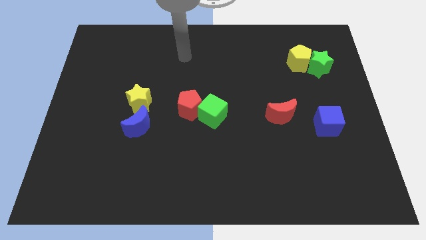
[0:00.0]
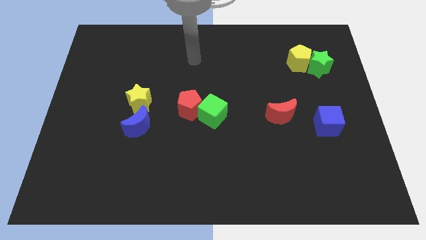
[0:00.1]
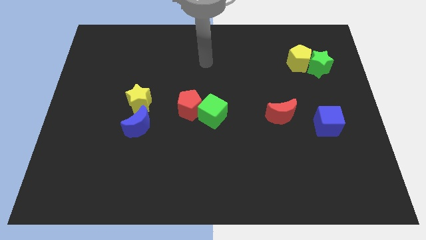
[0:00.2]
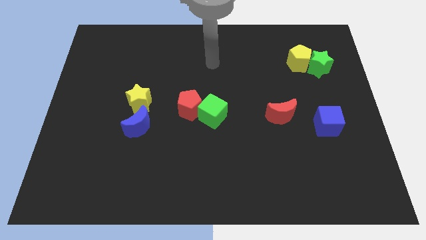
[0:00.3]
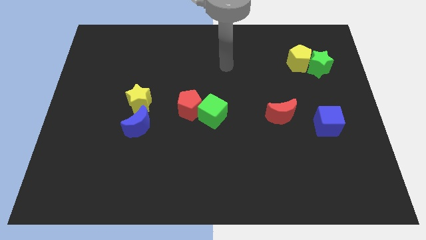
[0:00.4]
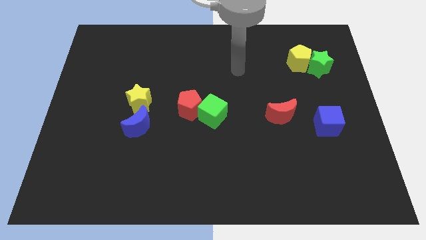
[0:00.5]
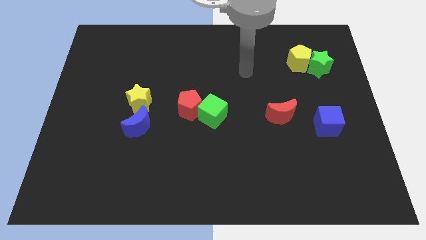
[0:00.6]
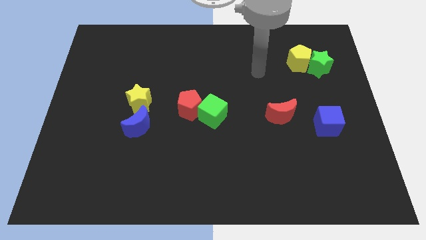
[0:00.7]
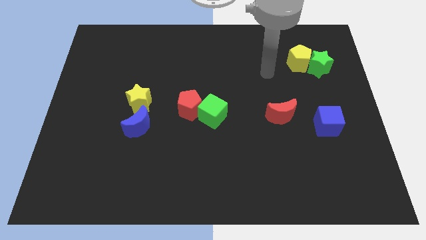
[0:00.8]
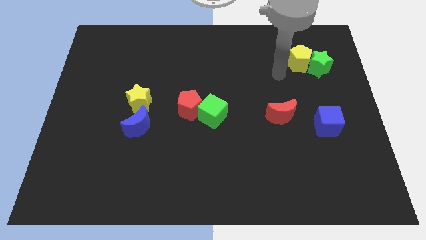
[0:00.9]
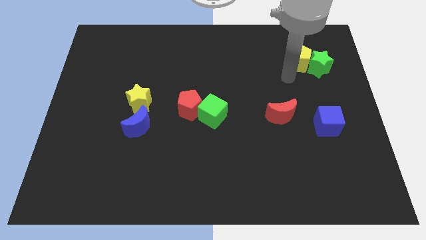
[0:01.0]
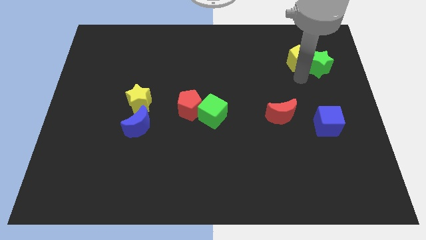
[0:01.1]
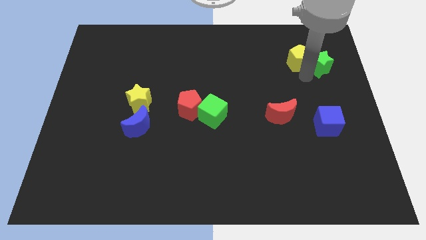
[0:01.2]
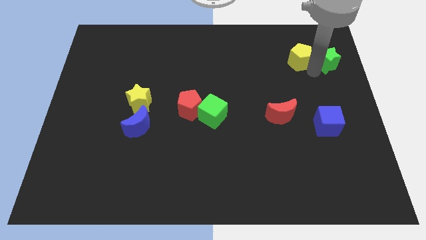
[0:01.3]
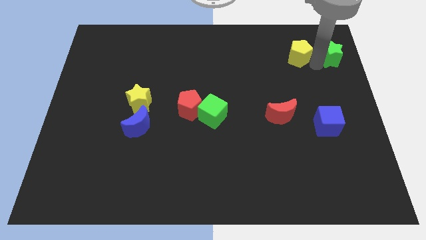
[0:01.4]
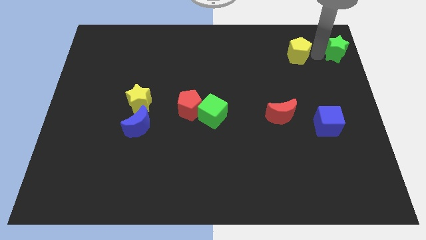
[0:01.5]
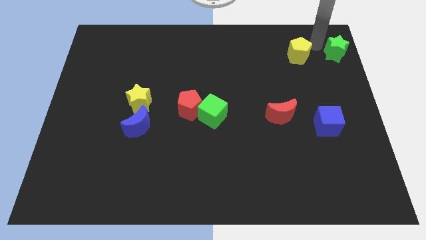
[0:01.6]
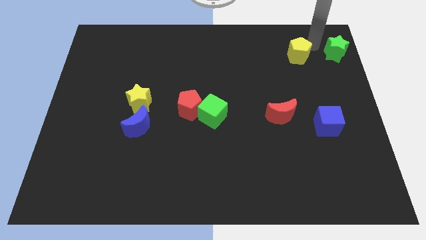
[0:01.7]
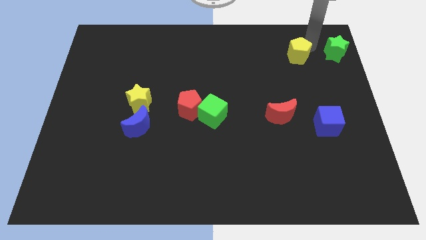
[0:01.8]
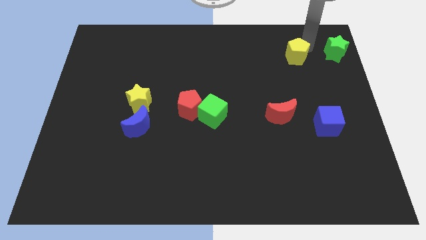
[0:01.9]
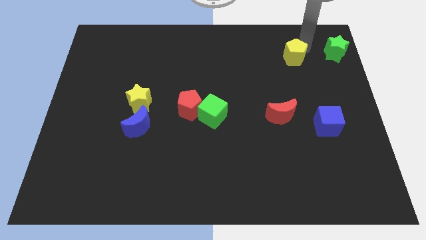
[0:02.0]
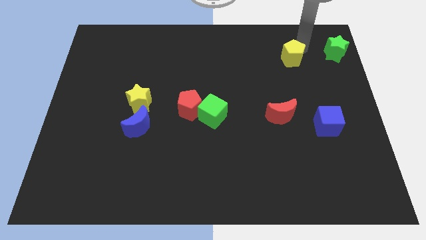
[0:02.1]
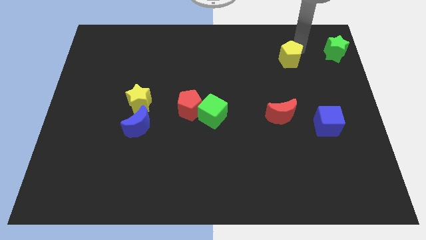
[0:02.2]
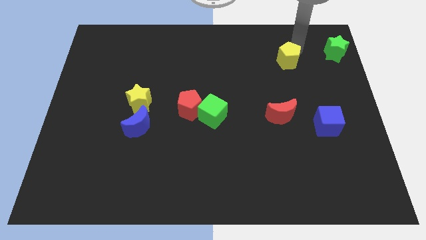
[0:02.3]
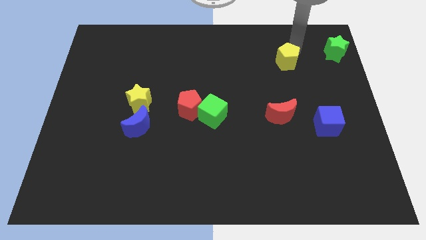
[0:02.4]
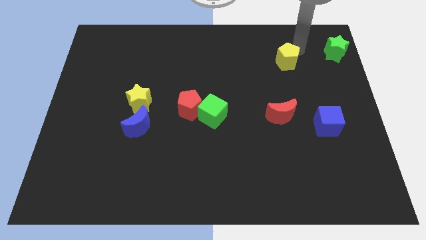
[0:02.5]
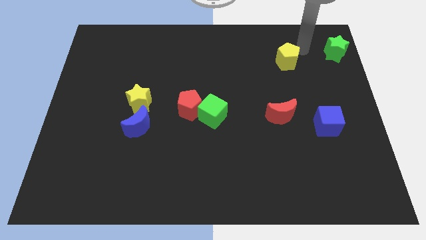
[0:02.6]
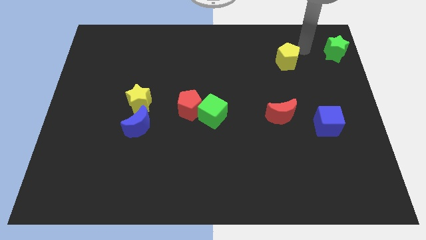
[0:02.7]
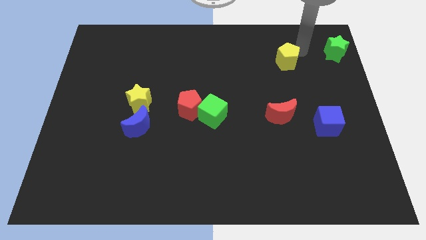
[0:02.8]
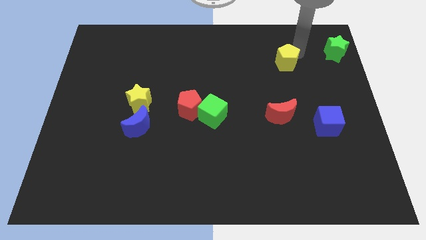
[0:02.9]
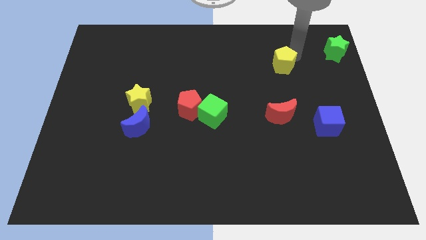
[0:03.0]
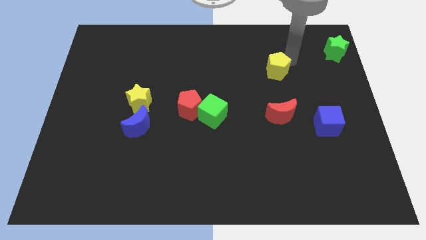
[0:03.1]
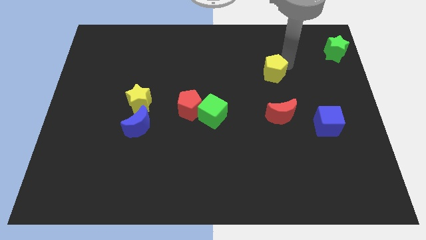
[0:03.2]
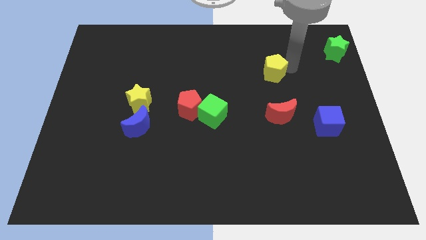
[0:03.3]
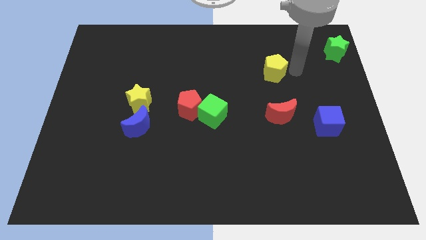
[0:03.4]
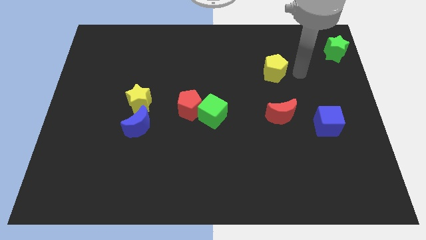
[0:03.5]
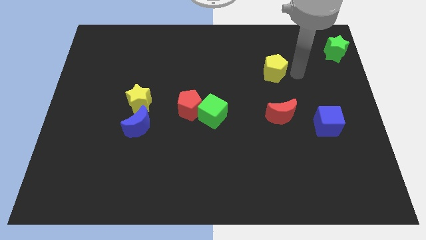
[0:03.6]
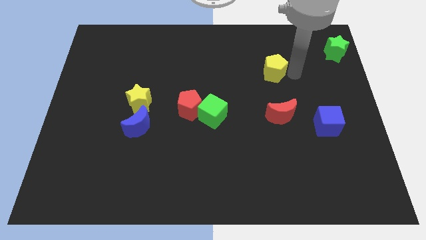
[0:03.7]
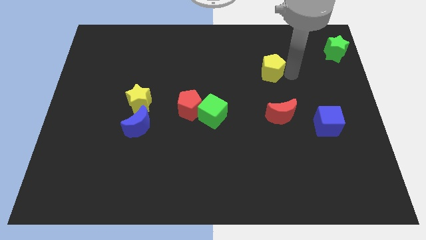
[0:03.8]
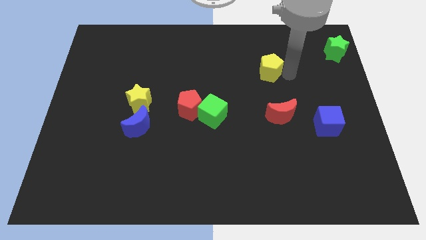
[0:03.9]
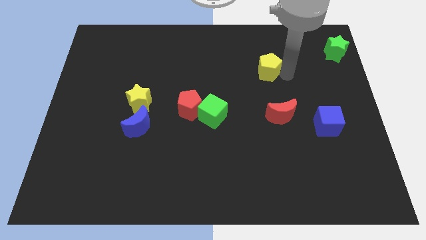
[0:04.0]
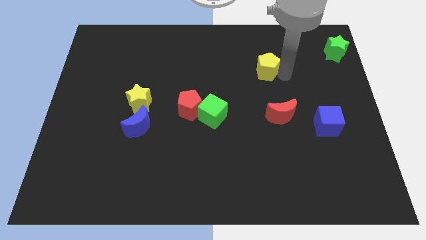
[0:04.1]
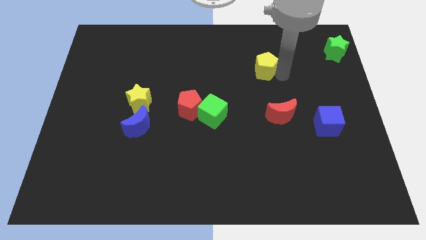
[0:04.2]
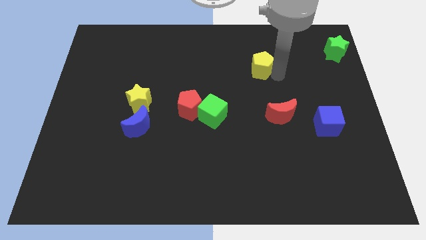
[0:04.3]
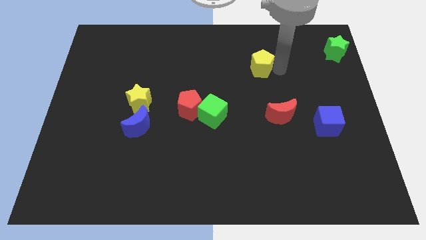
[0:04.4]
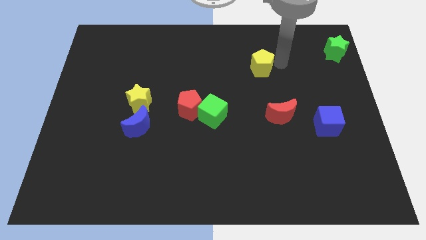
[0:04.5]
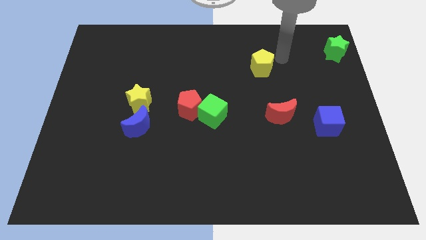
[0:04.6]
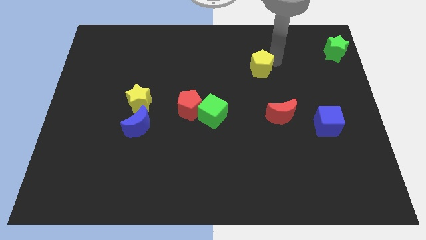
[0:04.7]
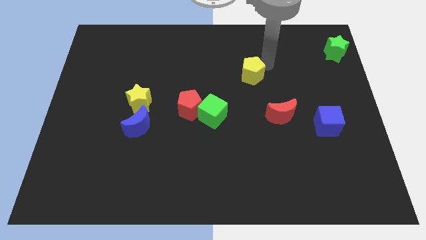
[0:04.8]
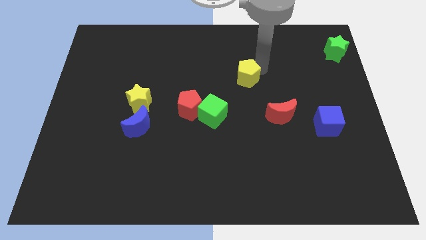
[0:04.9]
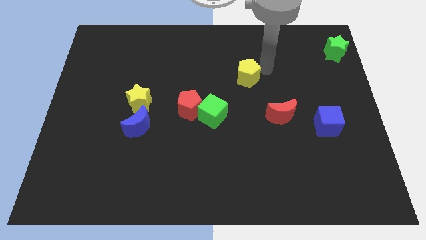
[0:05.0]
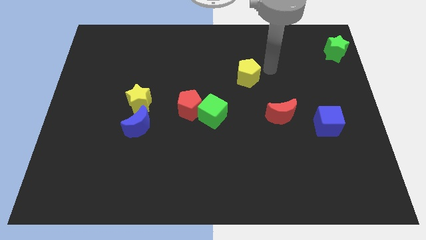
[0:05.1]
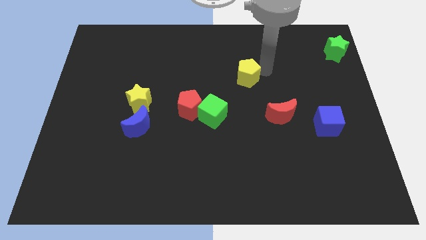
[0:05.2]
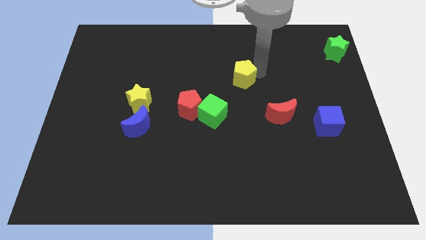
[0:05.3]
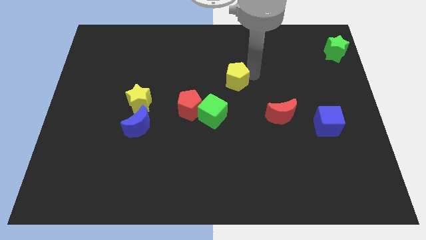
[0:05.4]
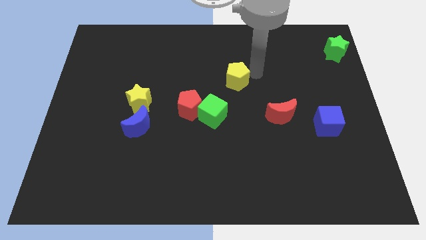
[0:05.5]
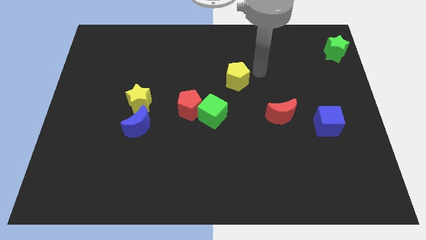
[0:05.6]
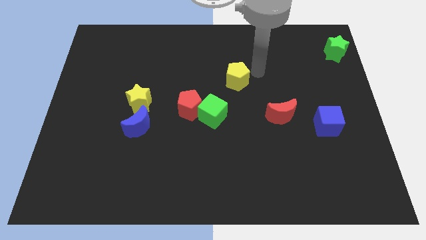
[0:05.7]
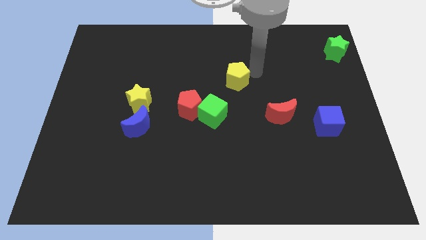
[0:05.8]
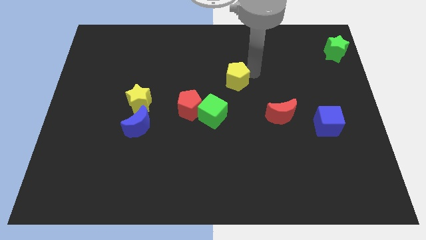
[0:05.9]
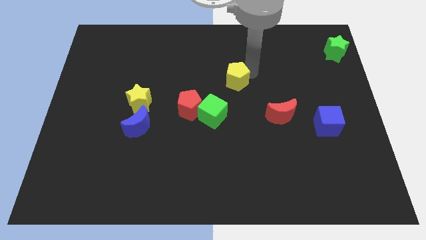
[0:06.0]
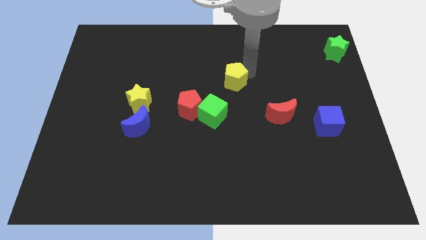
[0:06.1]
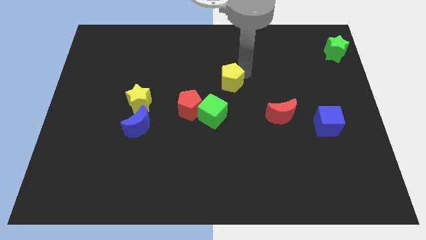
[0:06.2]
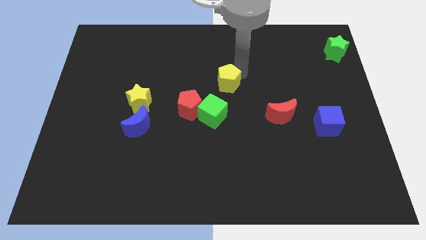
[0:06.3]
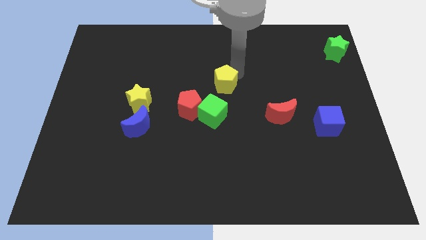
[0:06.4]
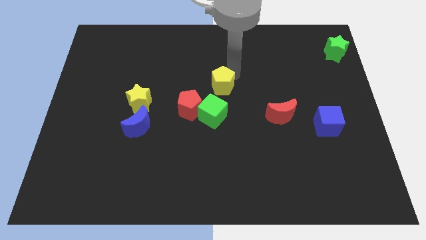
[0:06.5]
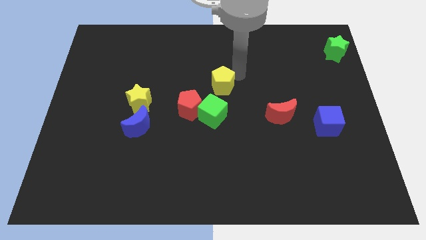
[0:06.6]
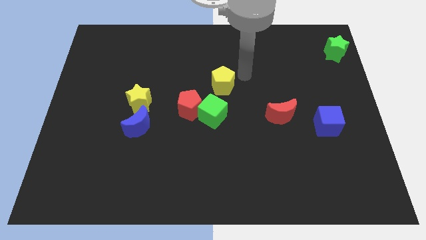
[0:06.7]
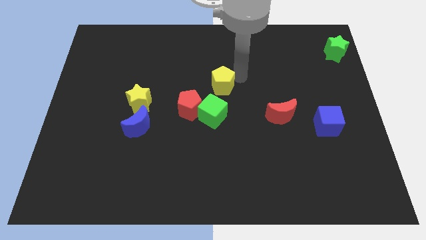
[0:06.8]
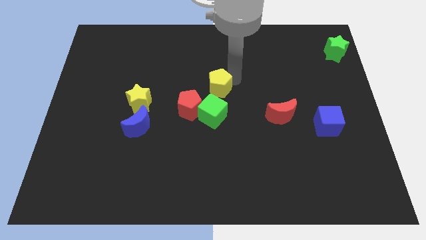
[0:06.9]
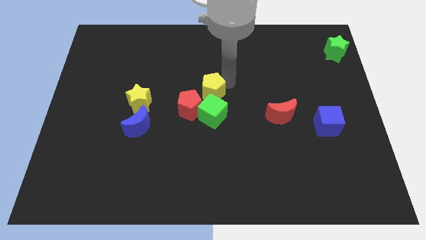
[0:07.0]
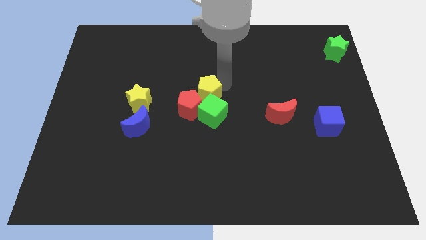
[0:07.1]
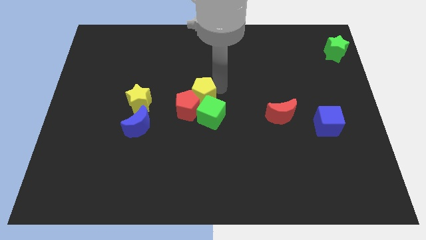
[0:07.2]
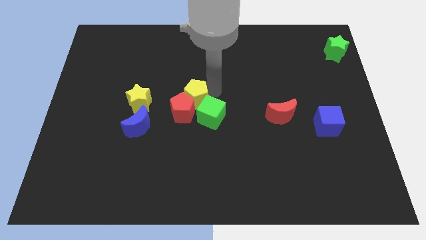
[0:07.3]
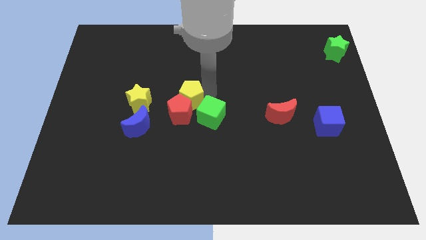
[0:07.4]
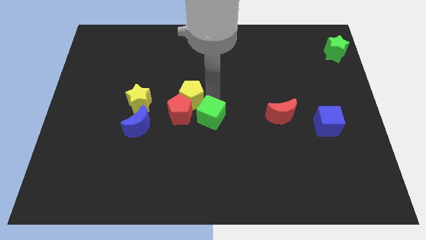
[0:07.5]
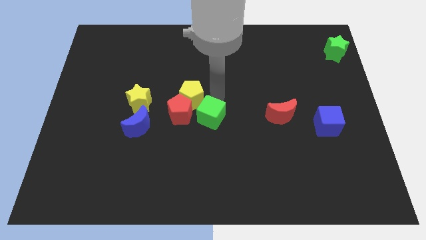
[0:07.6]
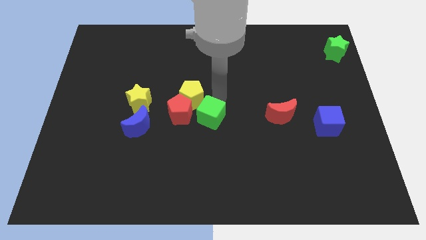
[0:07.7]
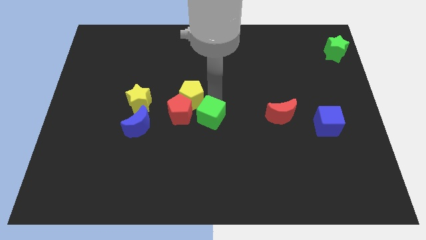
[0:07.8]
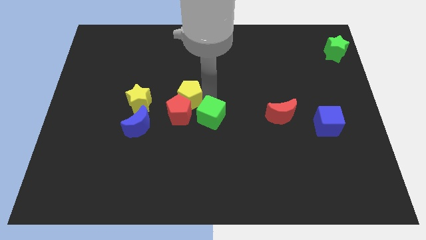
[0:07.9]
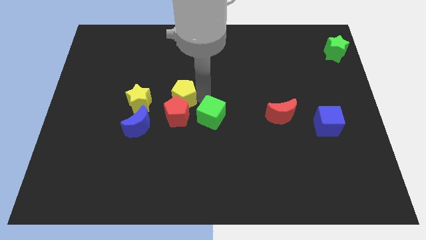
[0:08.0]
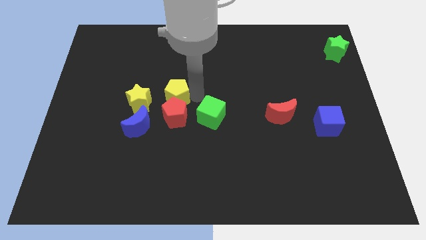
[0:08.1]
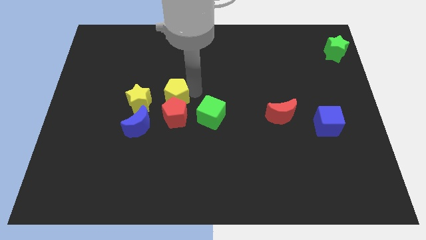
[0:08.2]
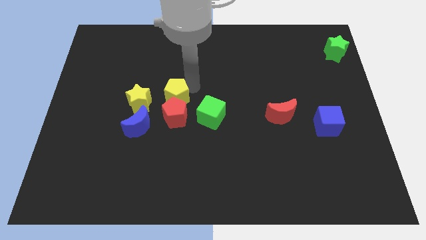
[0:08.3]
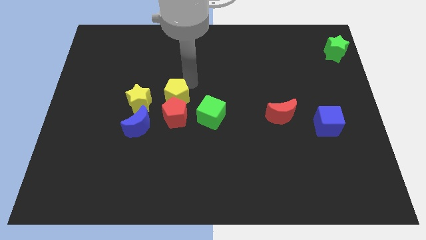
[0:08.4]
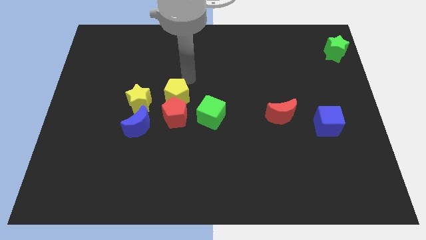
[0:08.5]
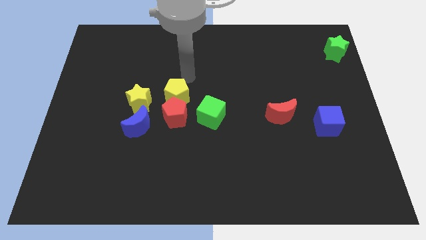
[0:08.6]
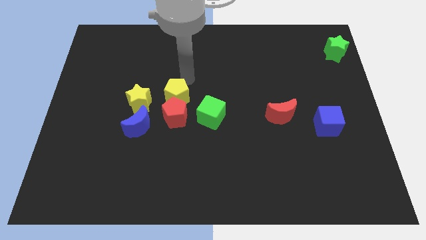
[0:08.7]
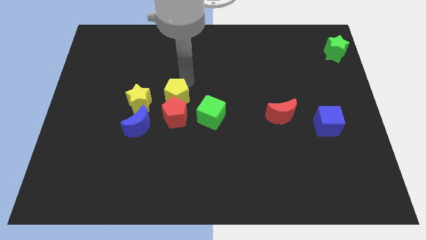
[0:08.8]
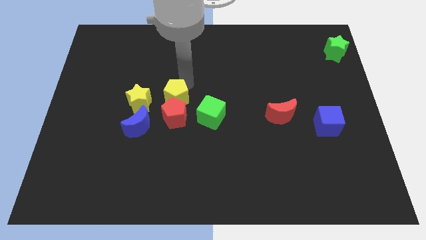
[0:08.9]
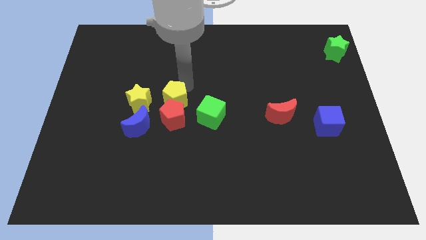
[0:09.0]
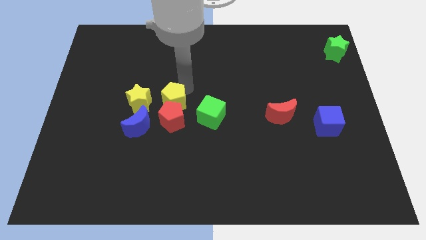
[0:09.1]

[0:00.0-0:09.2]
move the yellow pentagon to the left of the green cube
